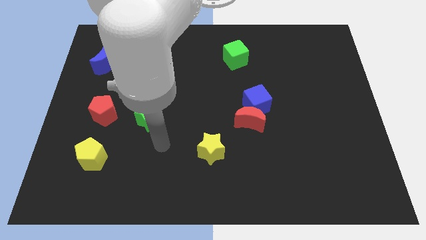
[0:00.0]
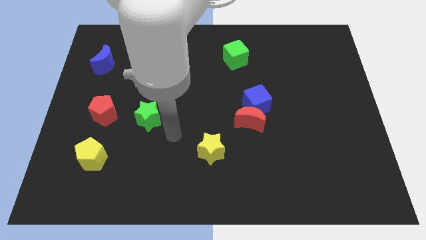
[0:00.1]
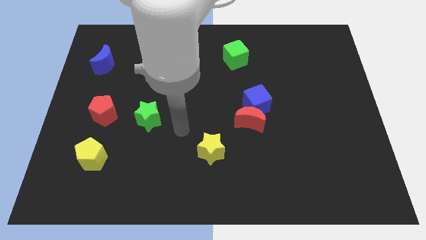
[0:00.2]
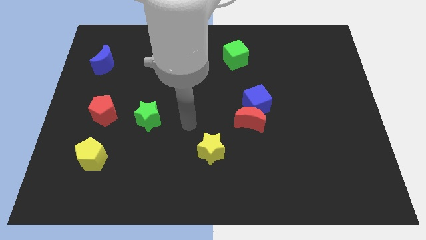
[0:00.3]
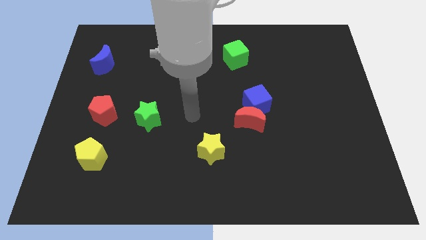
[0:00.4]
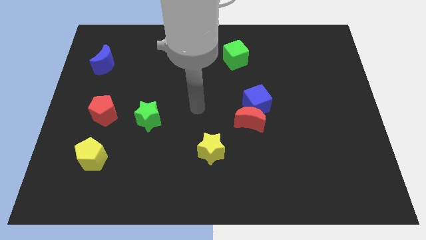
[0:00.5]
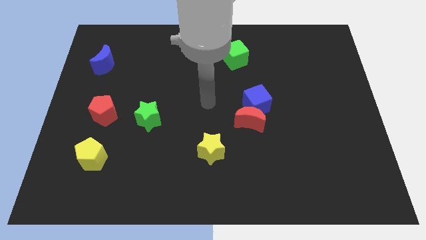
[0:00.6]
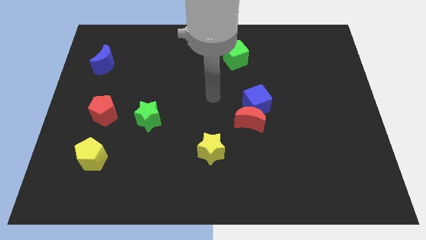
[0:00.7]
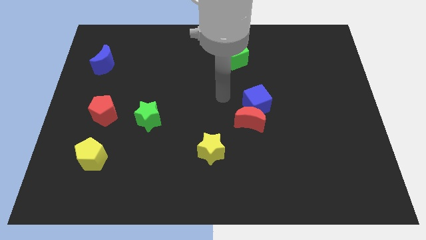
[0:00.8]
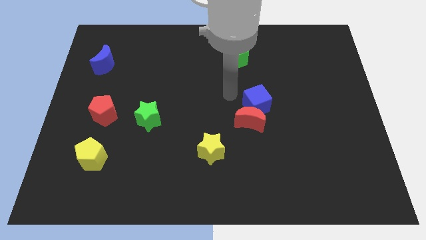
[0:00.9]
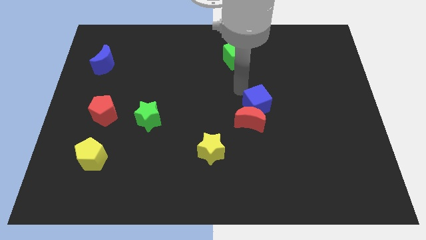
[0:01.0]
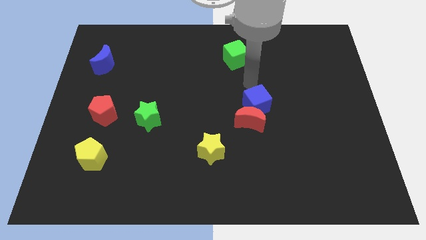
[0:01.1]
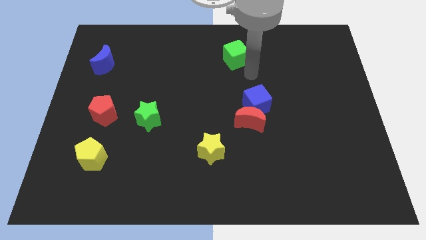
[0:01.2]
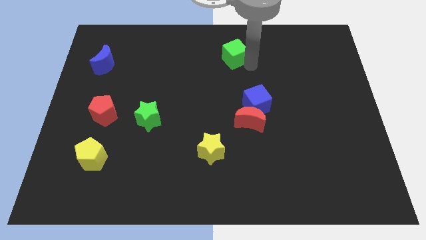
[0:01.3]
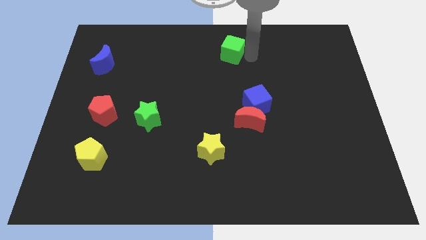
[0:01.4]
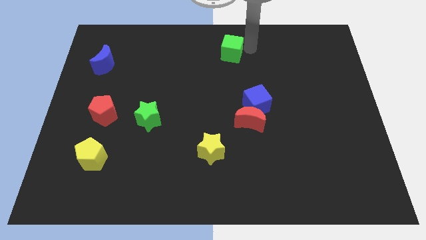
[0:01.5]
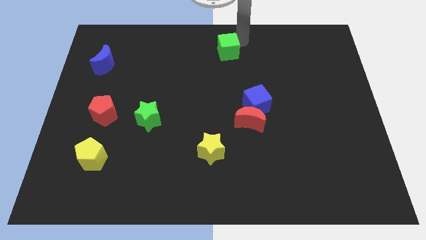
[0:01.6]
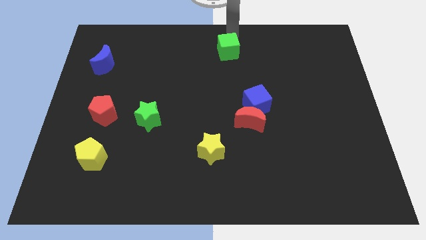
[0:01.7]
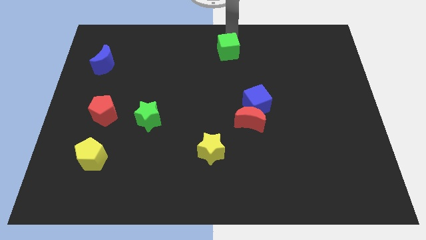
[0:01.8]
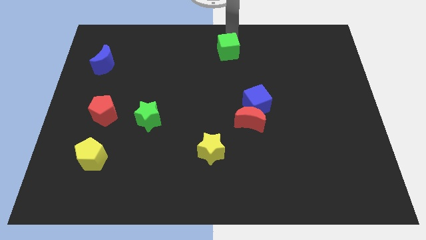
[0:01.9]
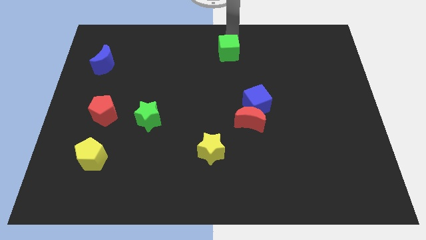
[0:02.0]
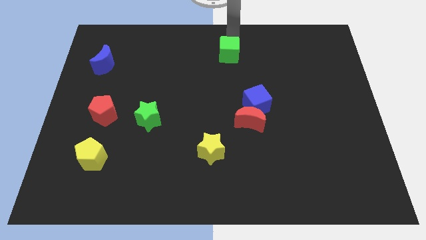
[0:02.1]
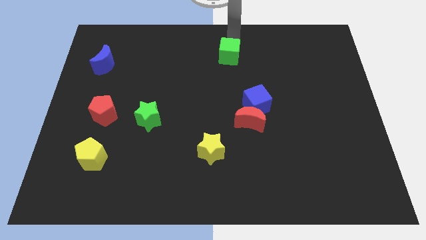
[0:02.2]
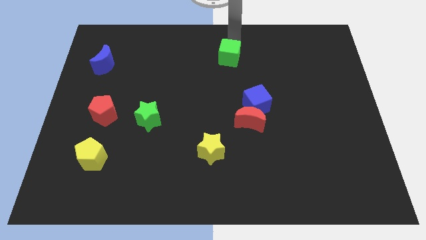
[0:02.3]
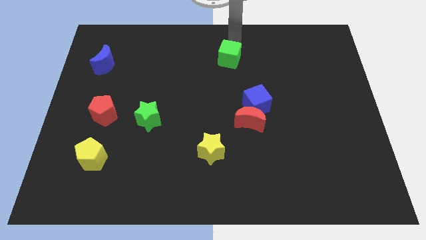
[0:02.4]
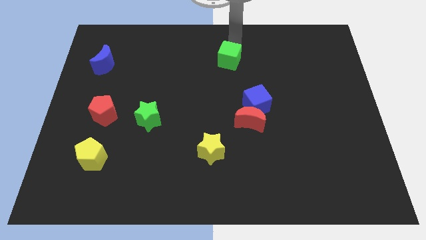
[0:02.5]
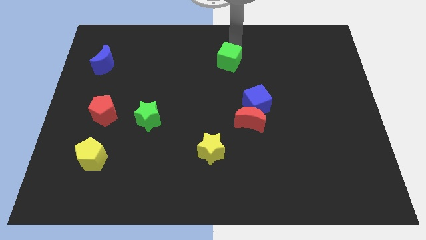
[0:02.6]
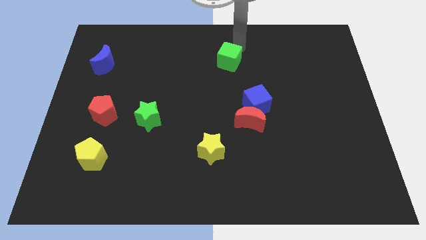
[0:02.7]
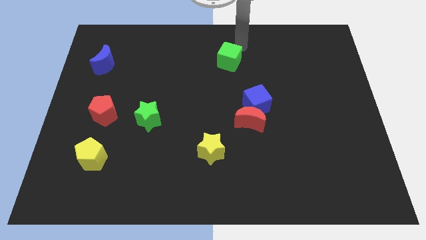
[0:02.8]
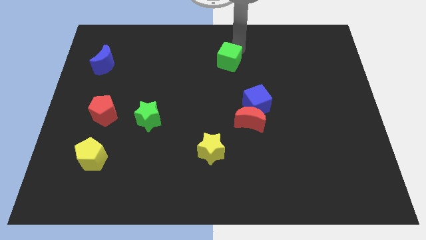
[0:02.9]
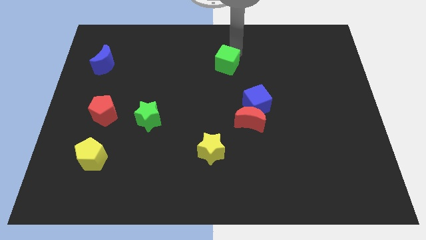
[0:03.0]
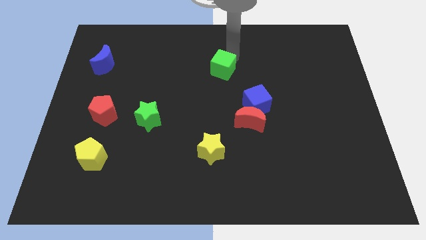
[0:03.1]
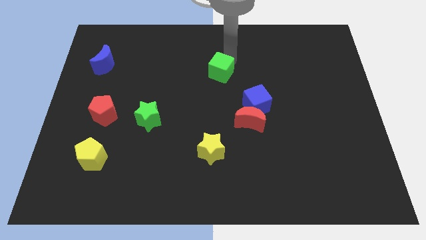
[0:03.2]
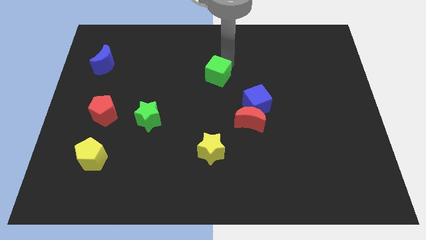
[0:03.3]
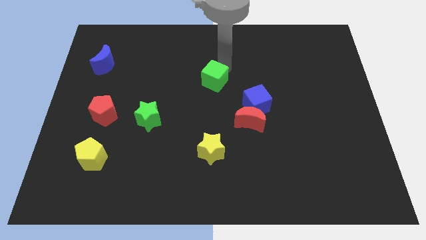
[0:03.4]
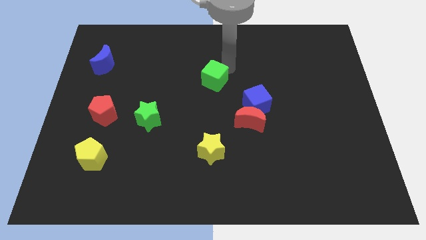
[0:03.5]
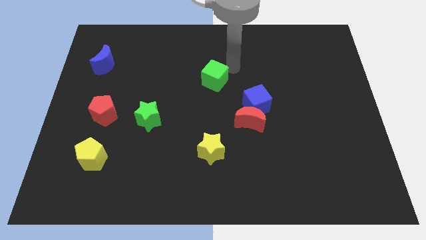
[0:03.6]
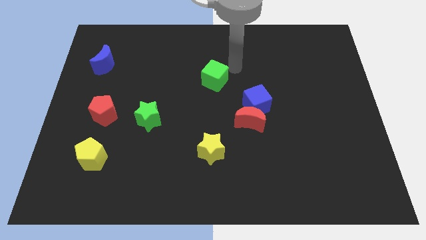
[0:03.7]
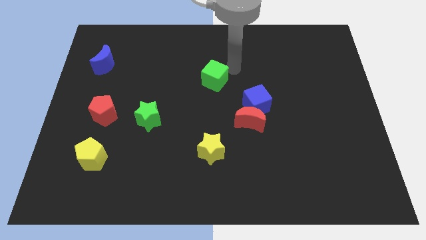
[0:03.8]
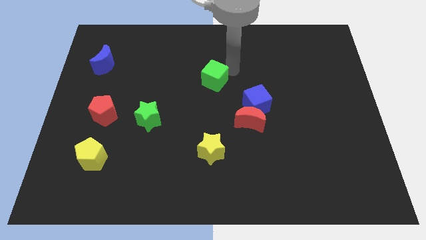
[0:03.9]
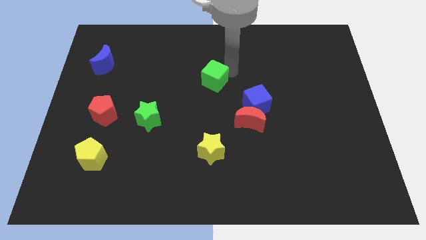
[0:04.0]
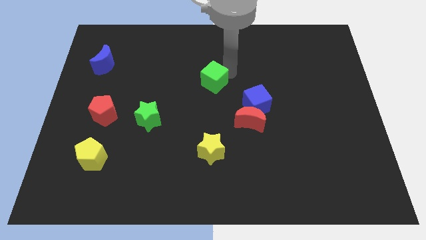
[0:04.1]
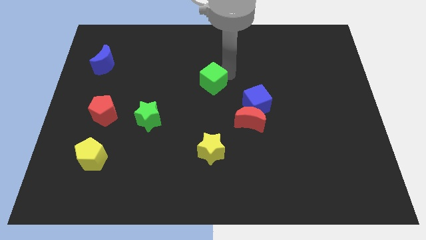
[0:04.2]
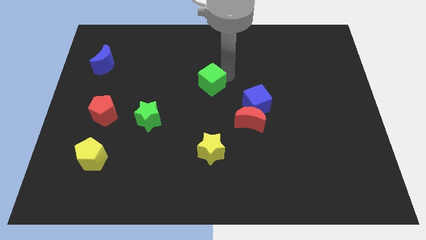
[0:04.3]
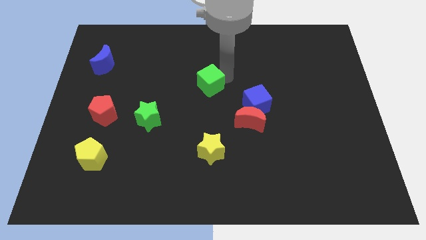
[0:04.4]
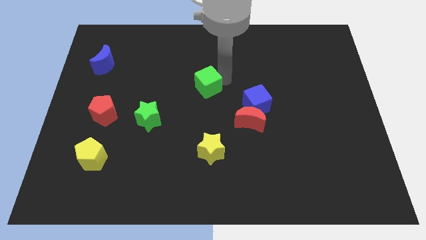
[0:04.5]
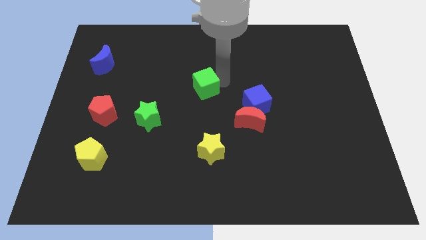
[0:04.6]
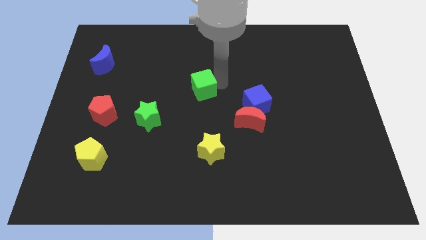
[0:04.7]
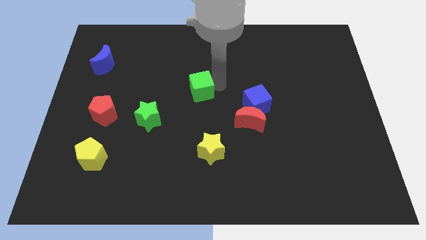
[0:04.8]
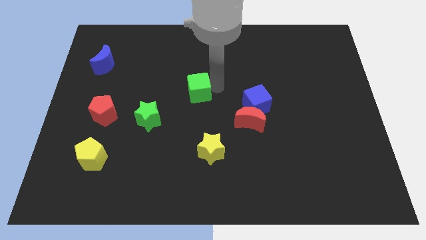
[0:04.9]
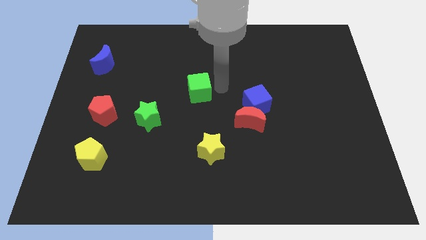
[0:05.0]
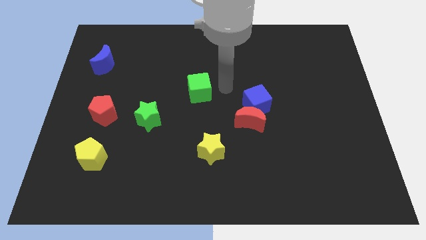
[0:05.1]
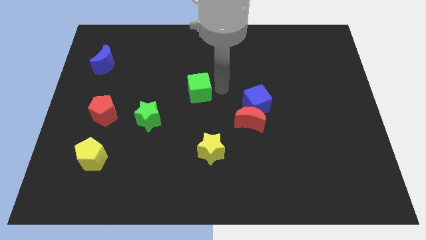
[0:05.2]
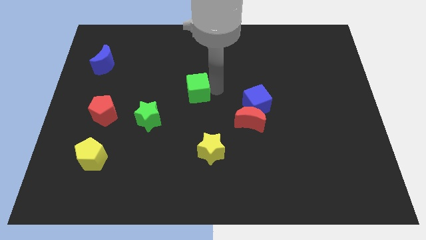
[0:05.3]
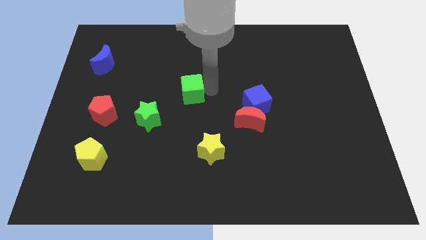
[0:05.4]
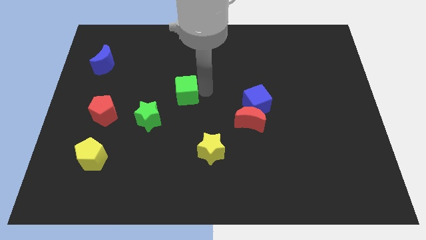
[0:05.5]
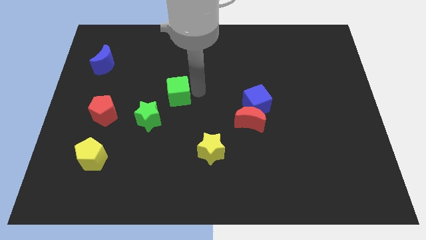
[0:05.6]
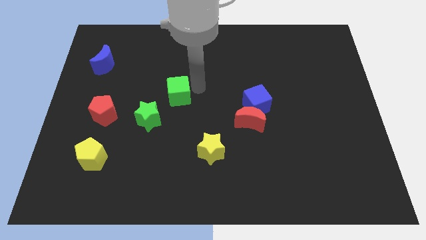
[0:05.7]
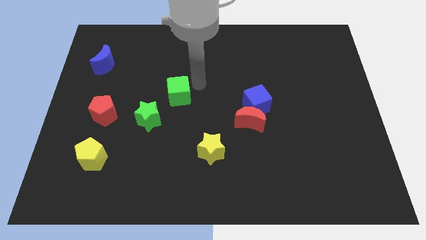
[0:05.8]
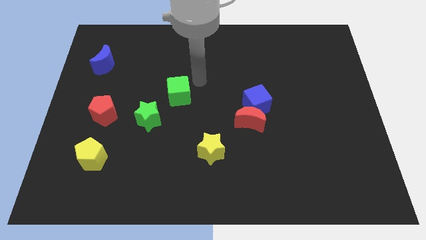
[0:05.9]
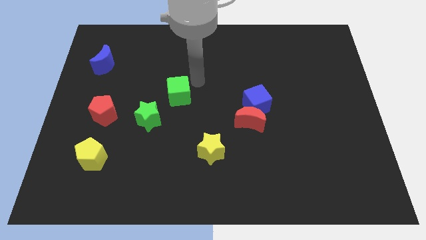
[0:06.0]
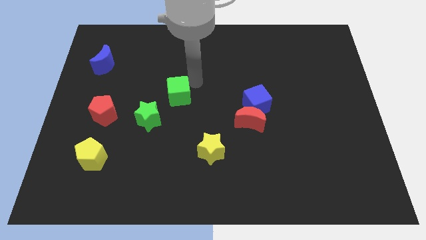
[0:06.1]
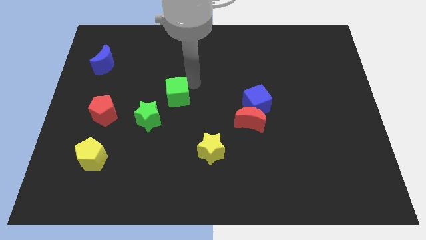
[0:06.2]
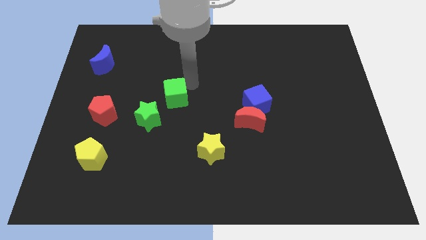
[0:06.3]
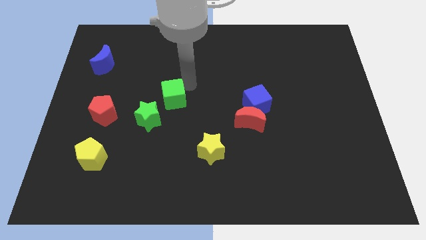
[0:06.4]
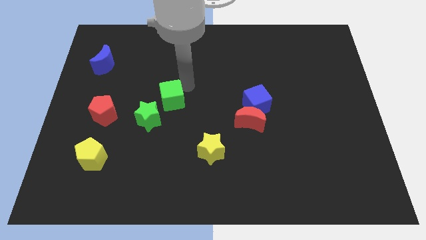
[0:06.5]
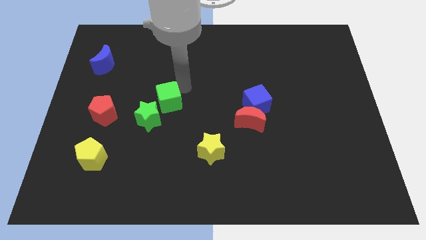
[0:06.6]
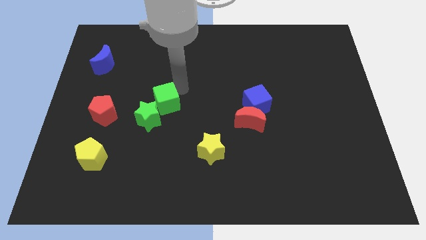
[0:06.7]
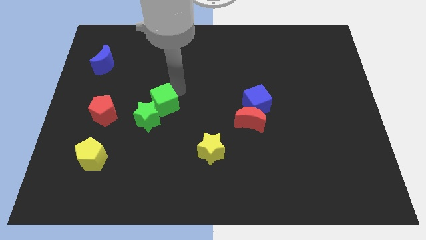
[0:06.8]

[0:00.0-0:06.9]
put the green cube towards the green star

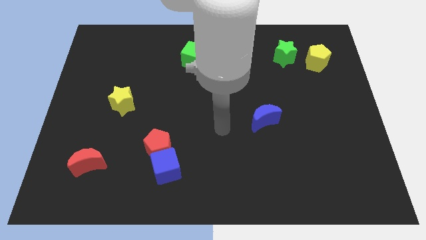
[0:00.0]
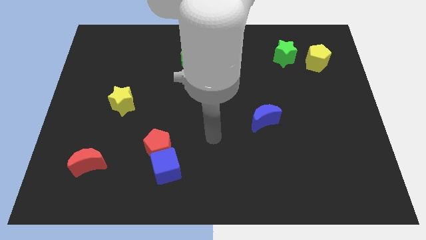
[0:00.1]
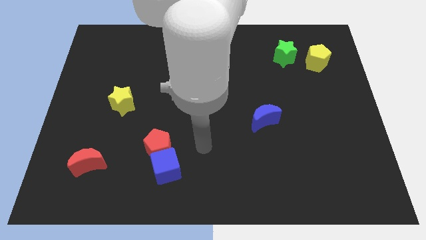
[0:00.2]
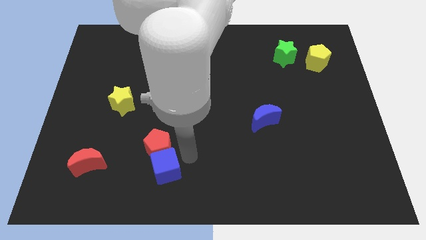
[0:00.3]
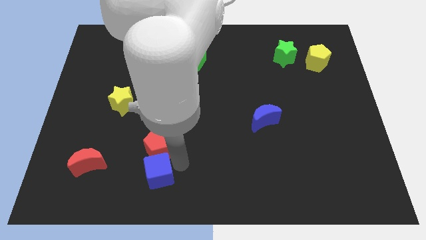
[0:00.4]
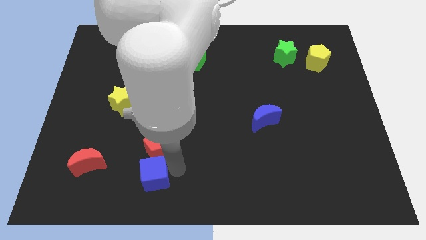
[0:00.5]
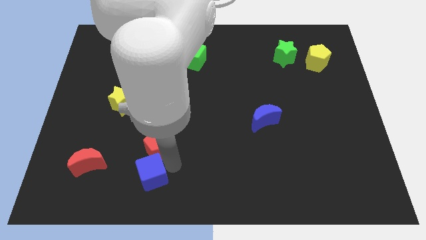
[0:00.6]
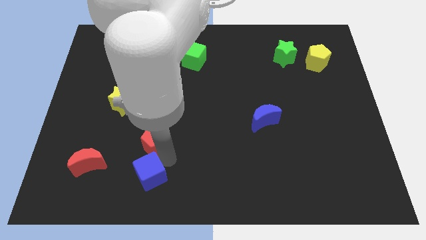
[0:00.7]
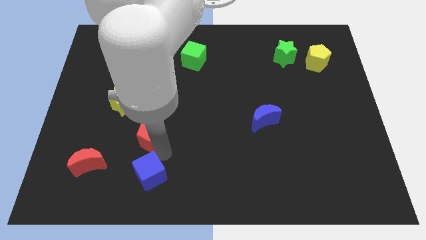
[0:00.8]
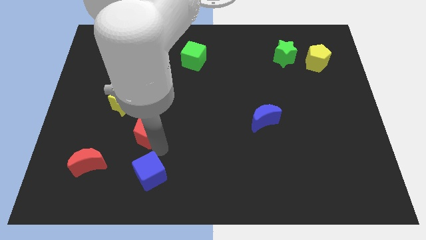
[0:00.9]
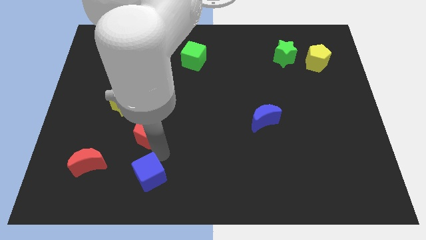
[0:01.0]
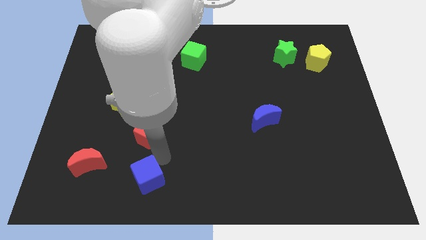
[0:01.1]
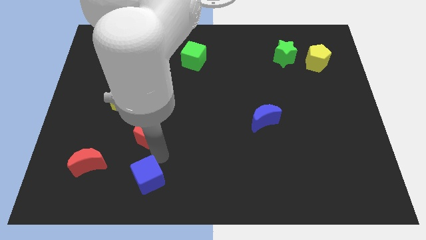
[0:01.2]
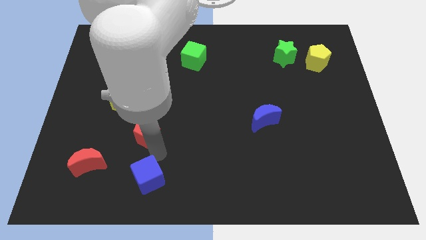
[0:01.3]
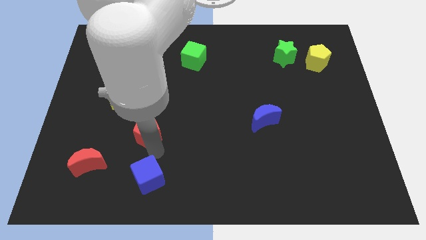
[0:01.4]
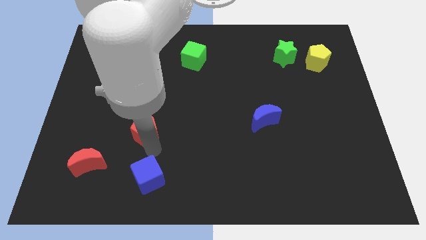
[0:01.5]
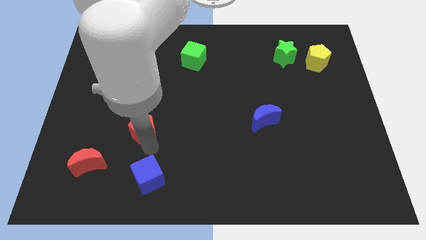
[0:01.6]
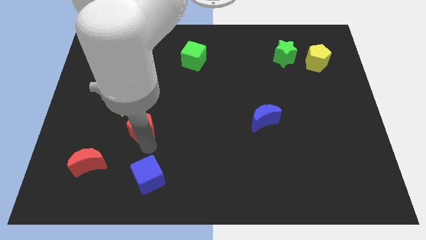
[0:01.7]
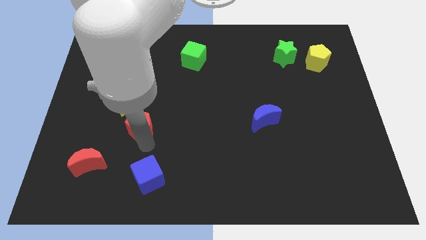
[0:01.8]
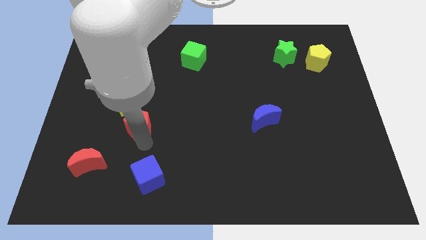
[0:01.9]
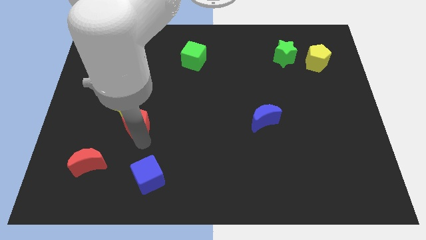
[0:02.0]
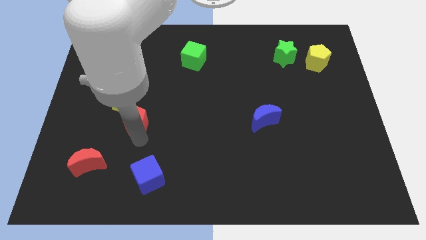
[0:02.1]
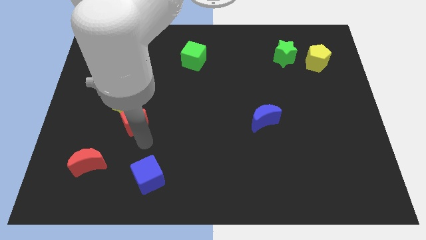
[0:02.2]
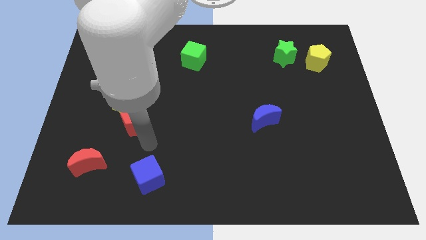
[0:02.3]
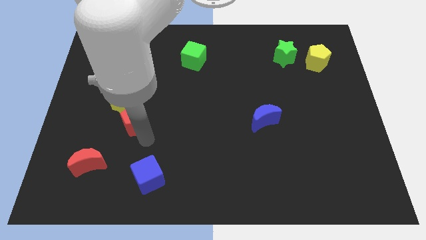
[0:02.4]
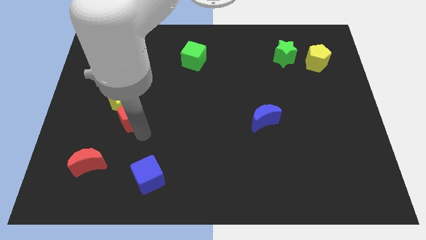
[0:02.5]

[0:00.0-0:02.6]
push the red pentagon to the yellow star
